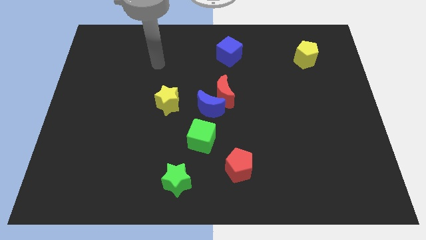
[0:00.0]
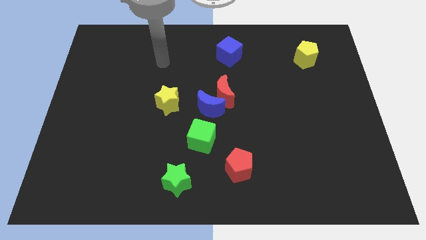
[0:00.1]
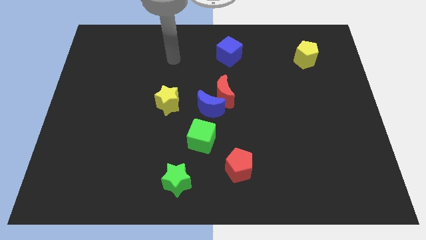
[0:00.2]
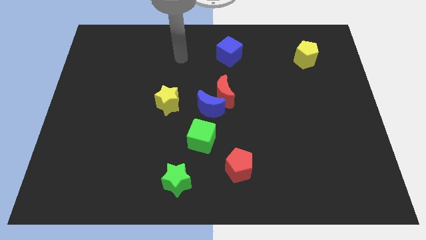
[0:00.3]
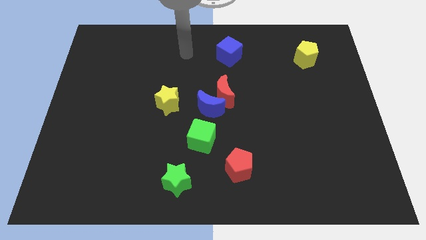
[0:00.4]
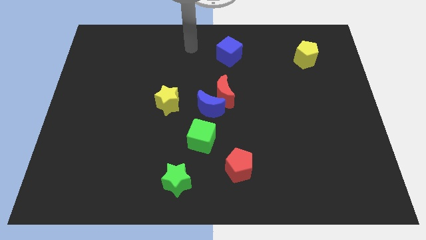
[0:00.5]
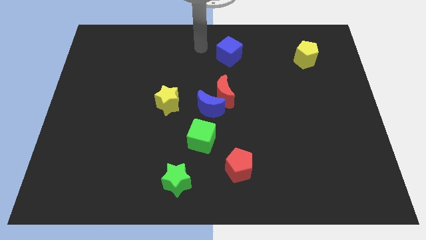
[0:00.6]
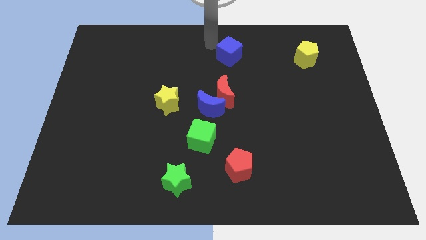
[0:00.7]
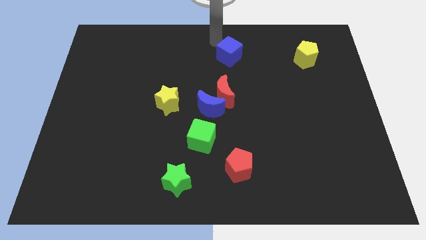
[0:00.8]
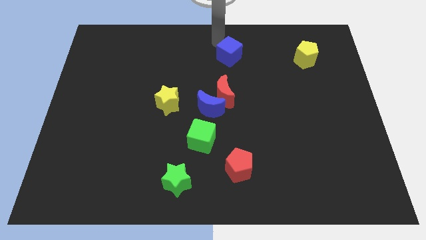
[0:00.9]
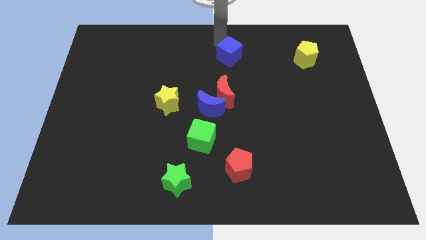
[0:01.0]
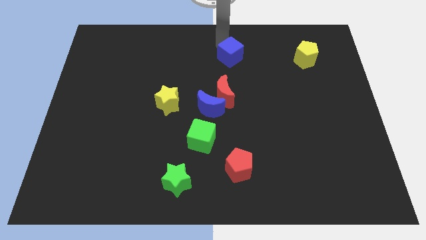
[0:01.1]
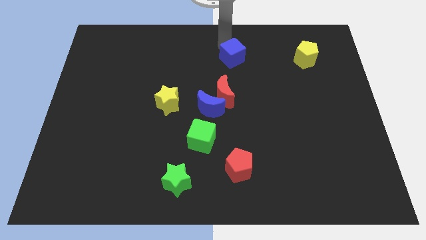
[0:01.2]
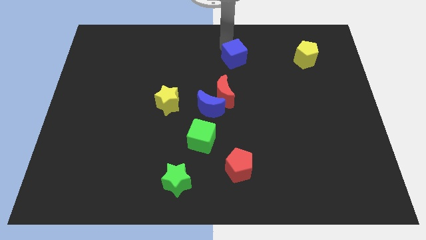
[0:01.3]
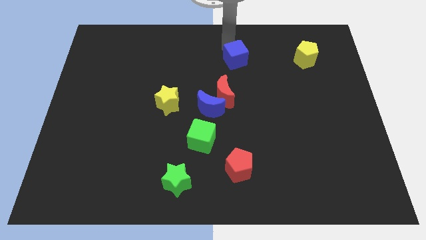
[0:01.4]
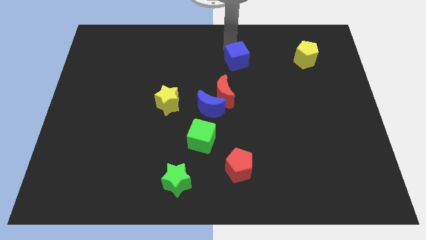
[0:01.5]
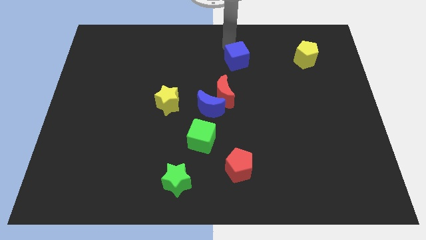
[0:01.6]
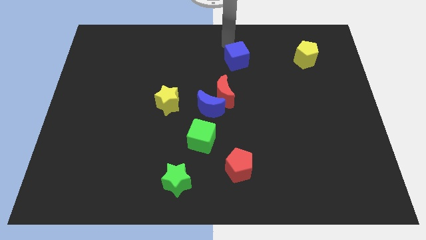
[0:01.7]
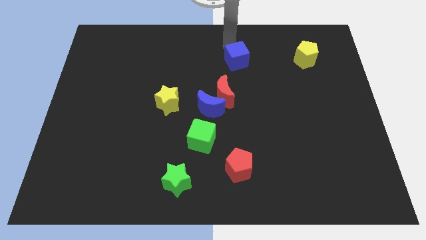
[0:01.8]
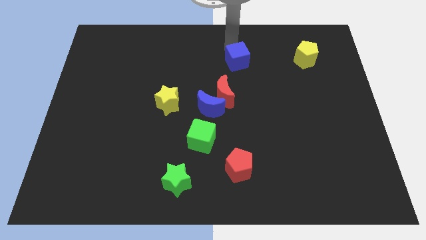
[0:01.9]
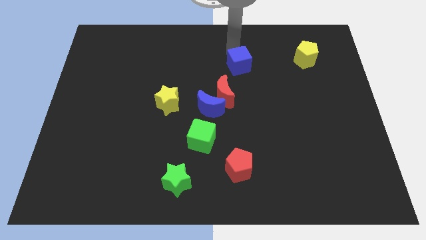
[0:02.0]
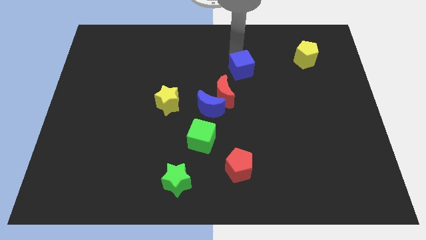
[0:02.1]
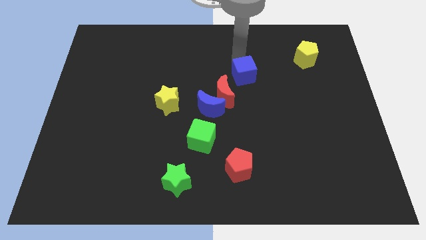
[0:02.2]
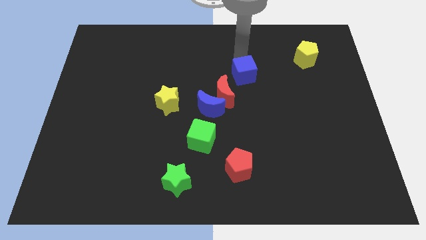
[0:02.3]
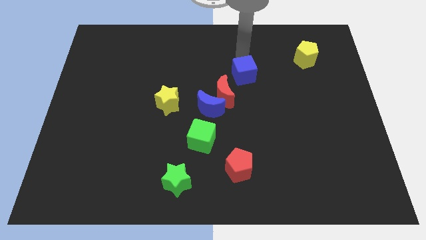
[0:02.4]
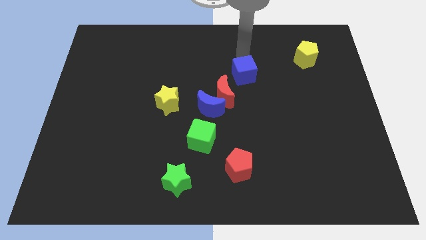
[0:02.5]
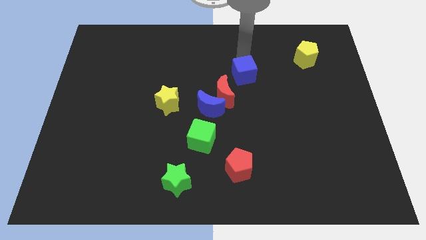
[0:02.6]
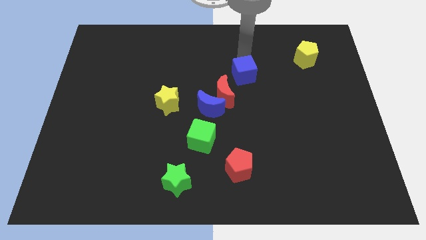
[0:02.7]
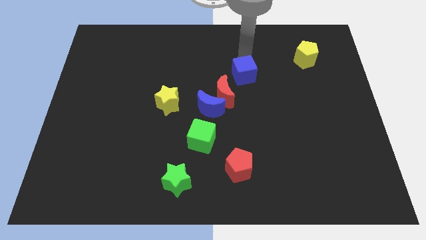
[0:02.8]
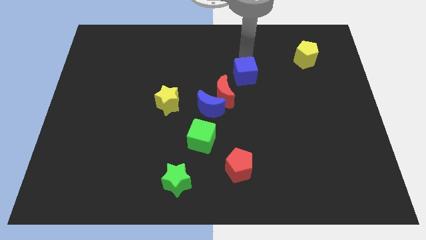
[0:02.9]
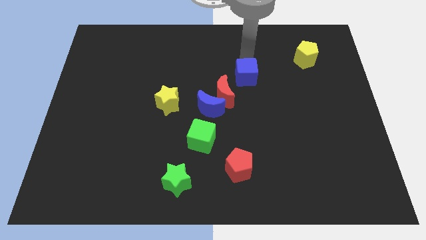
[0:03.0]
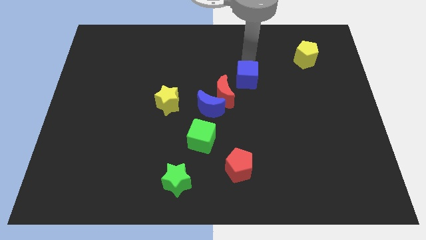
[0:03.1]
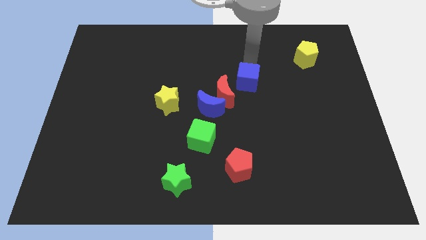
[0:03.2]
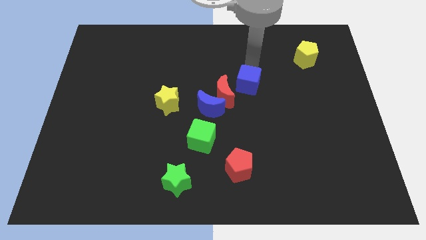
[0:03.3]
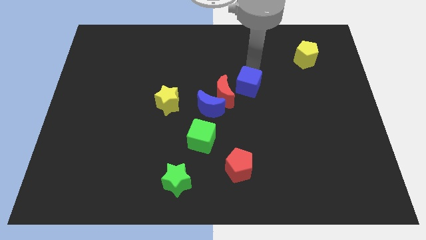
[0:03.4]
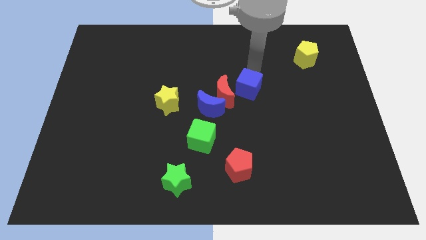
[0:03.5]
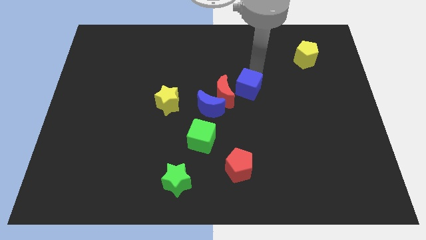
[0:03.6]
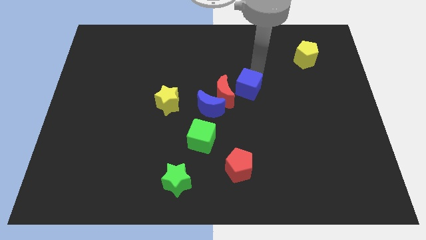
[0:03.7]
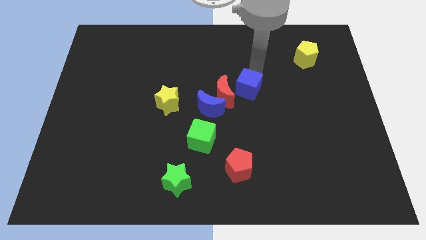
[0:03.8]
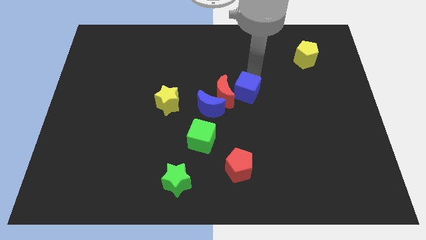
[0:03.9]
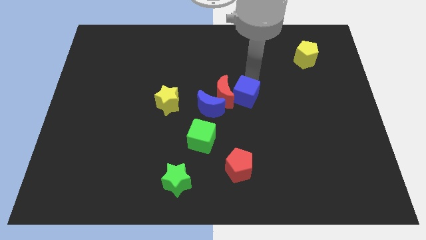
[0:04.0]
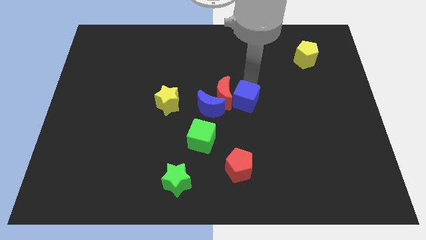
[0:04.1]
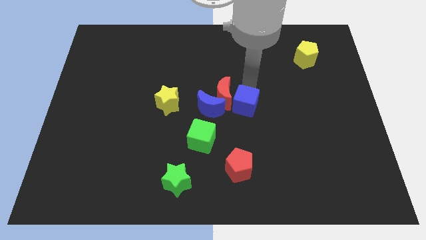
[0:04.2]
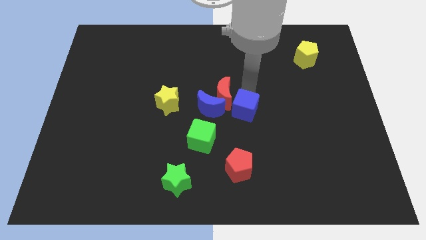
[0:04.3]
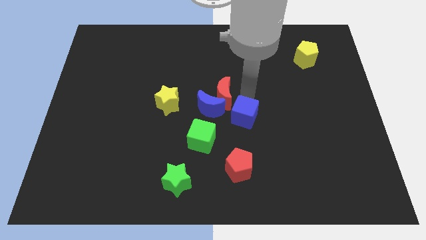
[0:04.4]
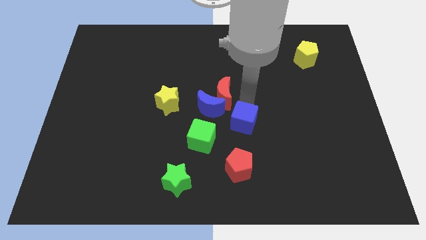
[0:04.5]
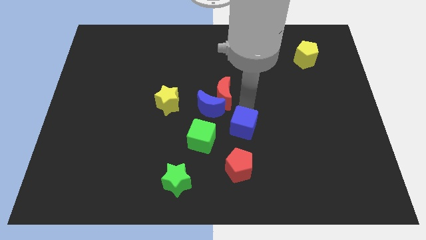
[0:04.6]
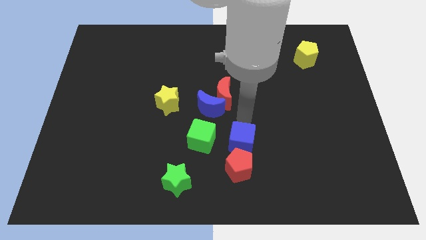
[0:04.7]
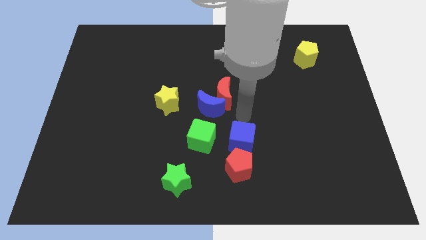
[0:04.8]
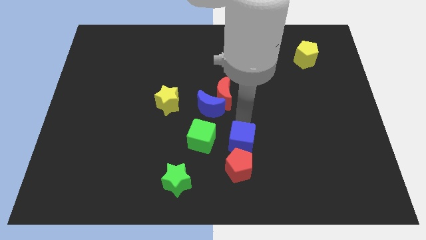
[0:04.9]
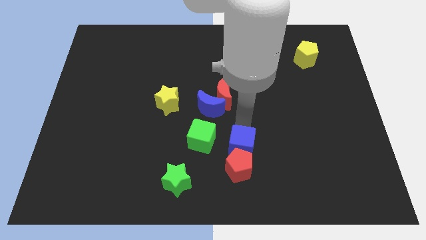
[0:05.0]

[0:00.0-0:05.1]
move the blue cube towards the red pentagon

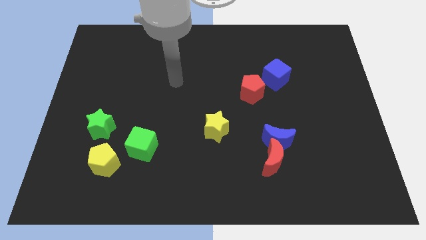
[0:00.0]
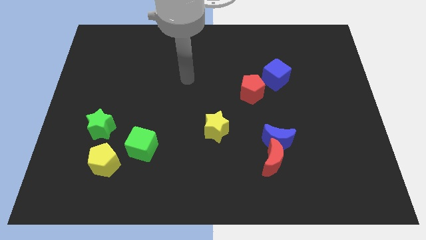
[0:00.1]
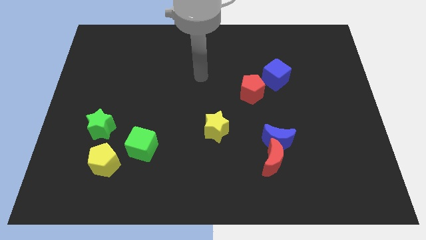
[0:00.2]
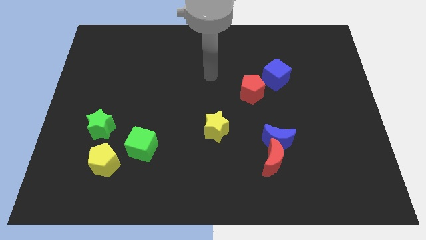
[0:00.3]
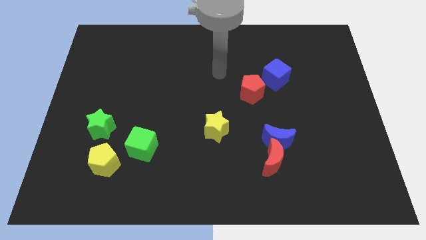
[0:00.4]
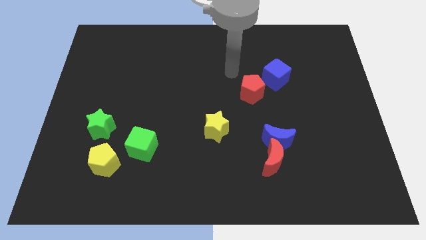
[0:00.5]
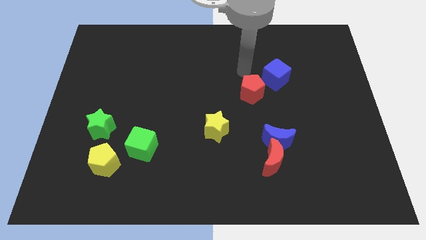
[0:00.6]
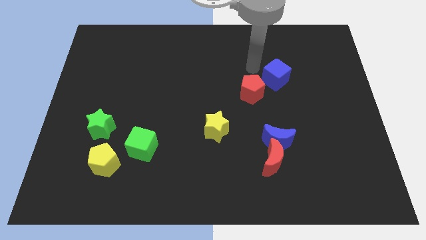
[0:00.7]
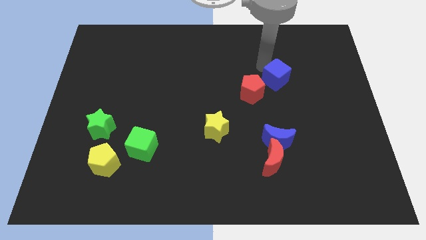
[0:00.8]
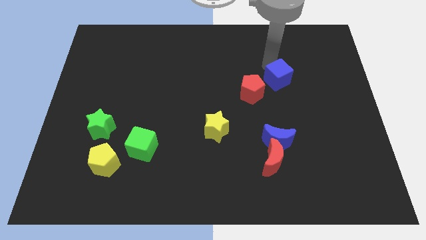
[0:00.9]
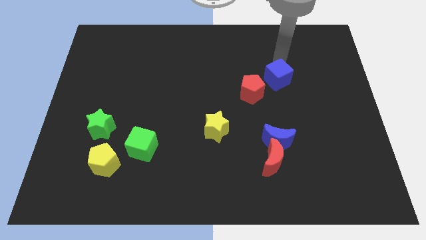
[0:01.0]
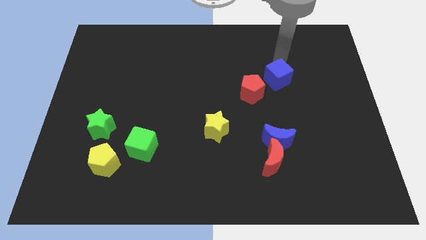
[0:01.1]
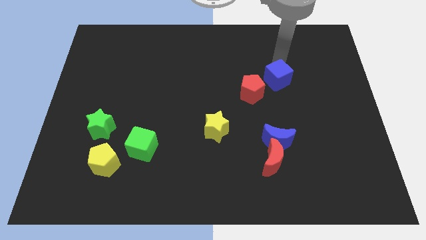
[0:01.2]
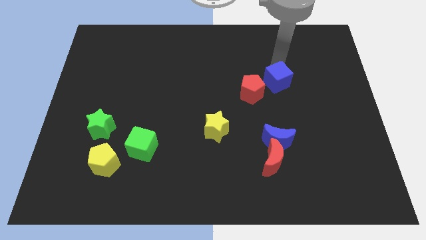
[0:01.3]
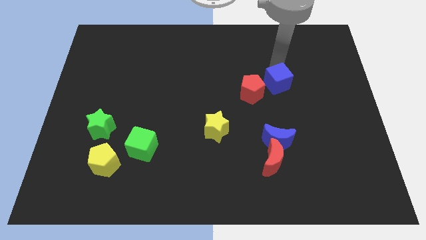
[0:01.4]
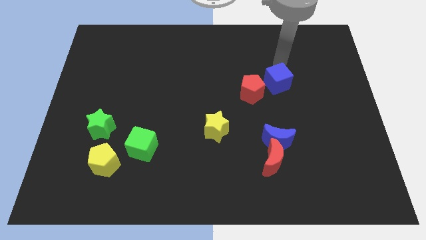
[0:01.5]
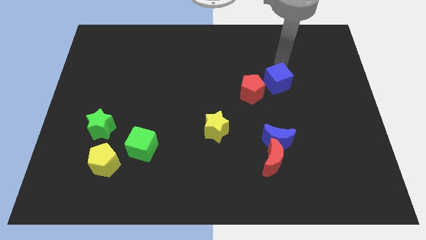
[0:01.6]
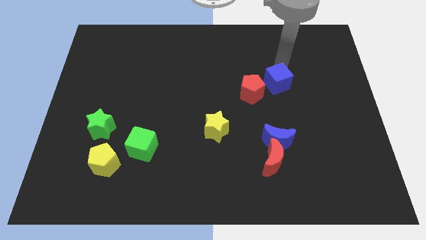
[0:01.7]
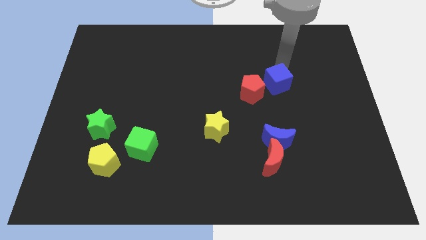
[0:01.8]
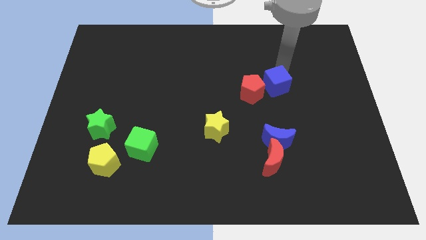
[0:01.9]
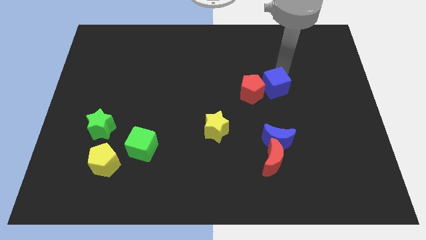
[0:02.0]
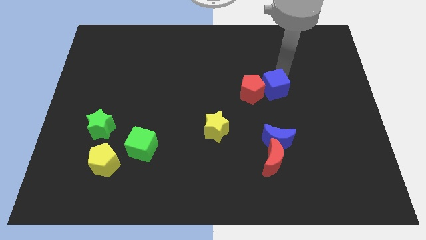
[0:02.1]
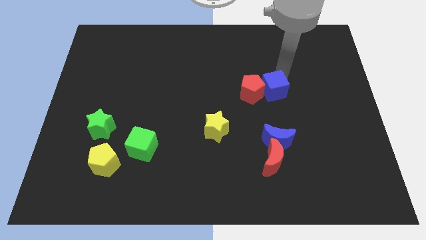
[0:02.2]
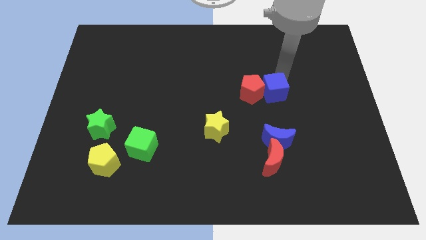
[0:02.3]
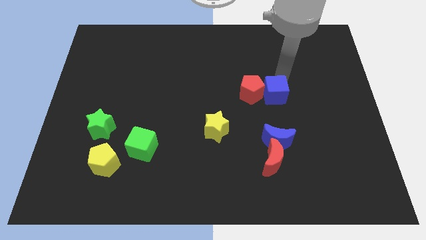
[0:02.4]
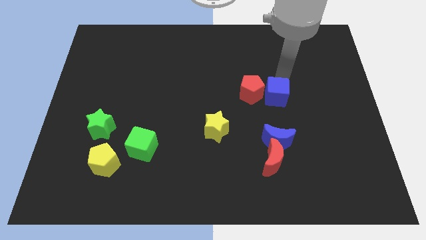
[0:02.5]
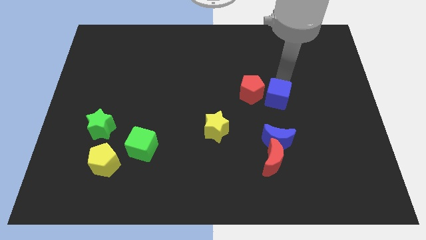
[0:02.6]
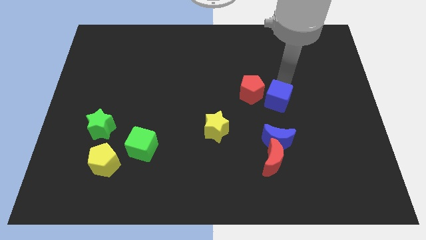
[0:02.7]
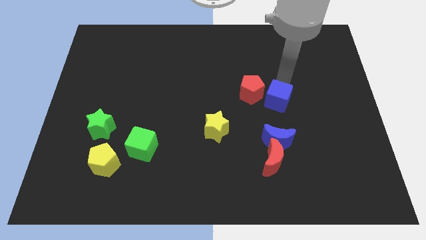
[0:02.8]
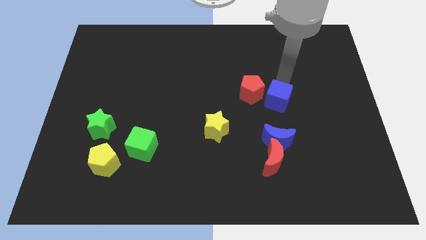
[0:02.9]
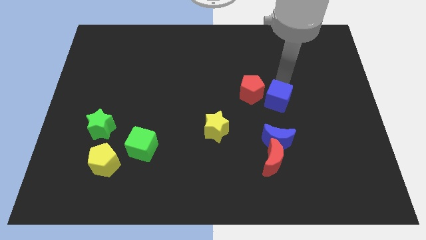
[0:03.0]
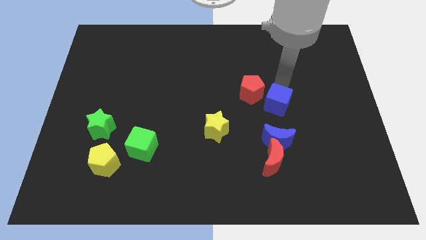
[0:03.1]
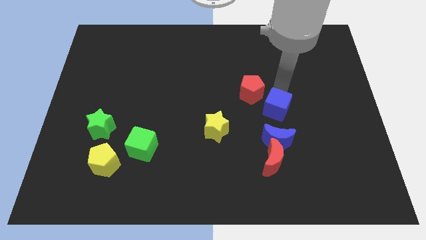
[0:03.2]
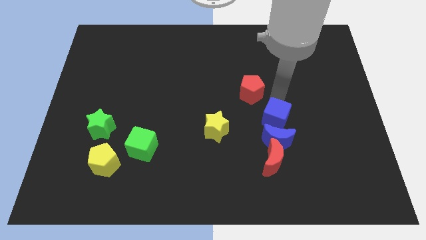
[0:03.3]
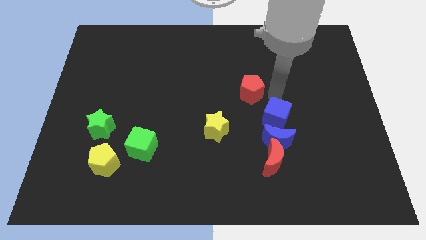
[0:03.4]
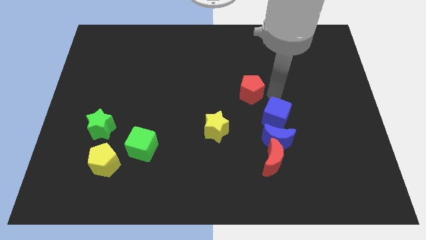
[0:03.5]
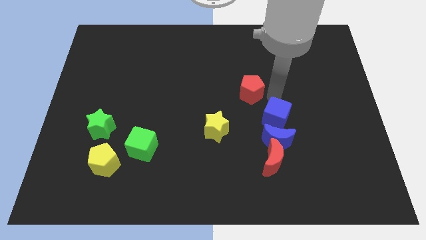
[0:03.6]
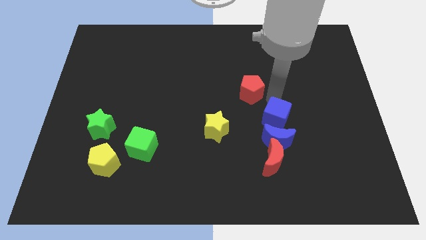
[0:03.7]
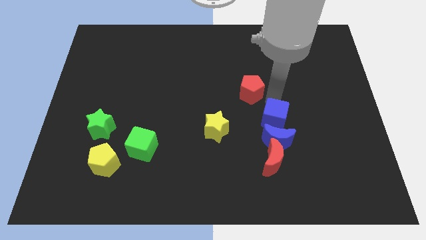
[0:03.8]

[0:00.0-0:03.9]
move the blue cube to the blue moon
